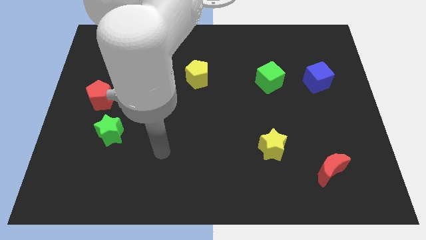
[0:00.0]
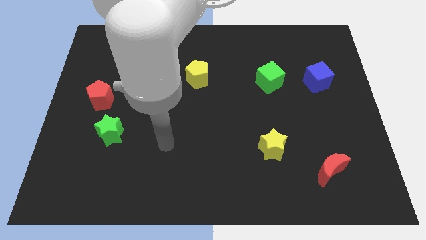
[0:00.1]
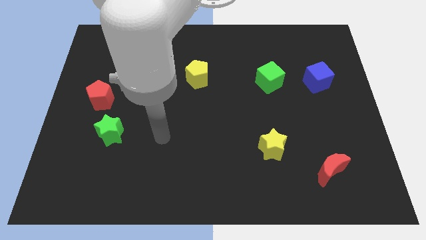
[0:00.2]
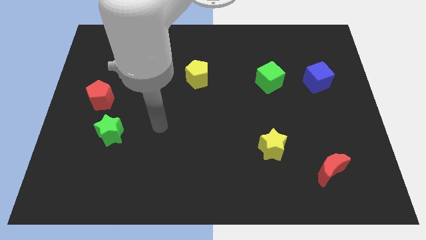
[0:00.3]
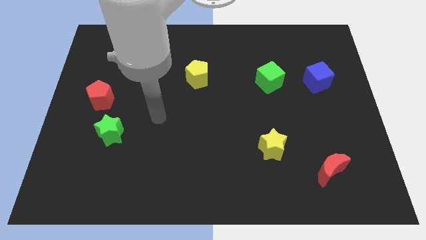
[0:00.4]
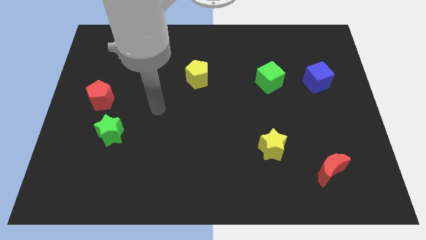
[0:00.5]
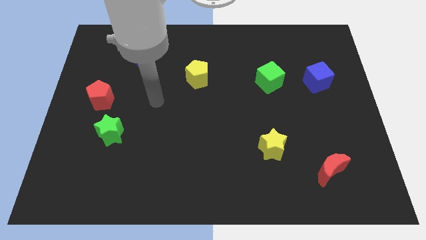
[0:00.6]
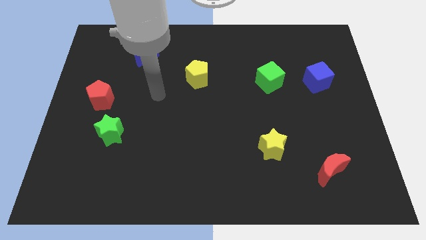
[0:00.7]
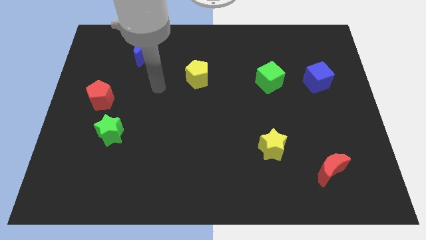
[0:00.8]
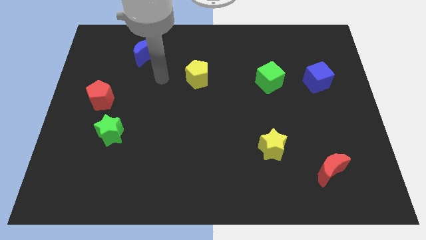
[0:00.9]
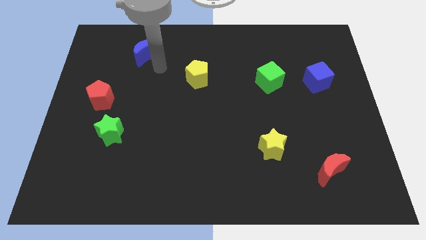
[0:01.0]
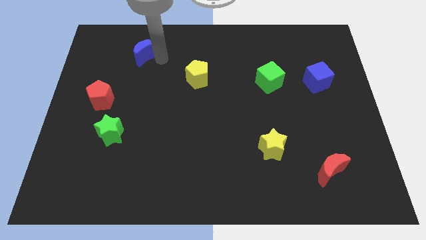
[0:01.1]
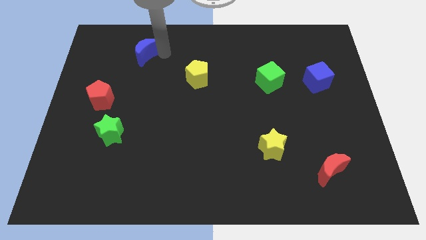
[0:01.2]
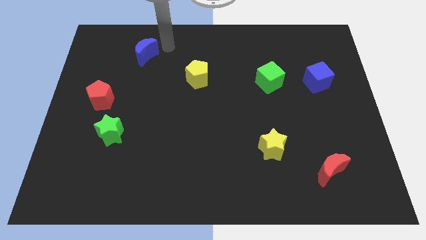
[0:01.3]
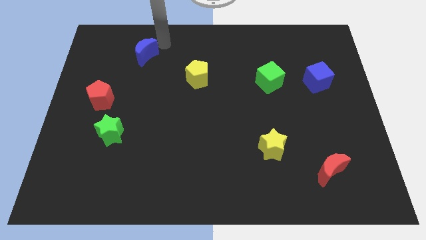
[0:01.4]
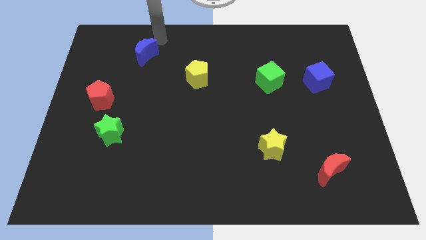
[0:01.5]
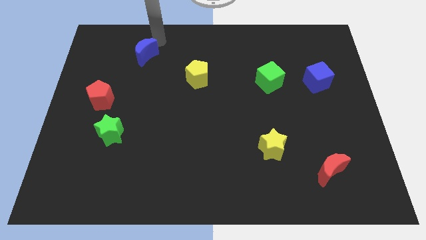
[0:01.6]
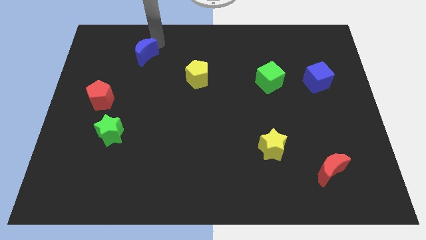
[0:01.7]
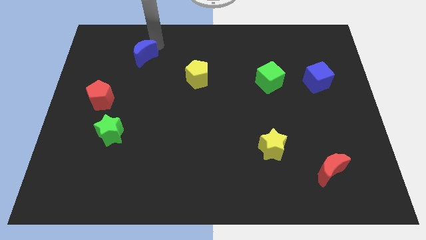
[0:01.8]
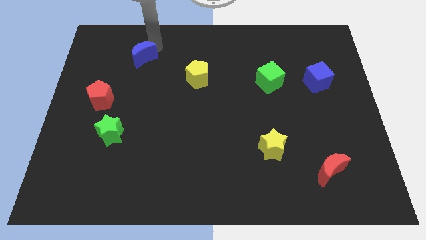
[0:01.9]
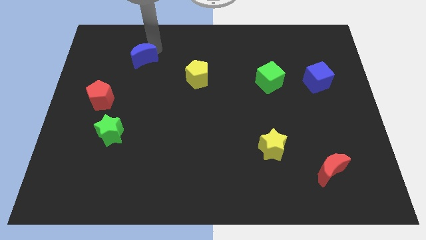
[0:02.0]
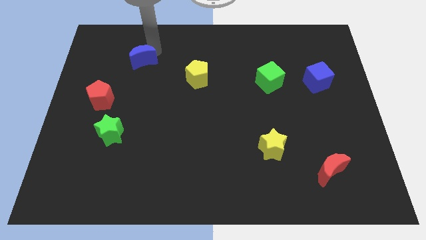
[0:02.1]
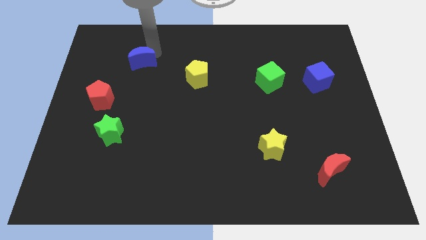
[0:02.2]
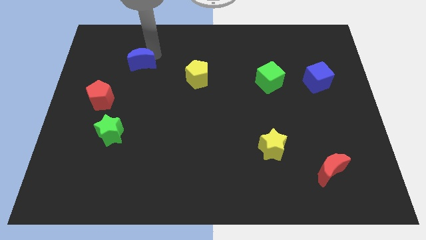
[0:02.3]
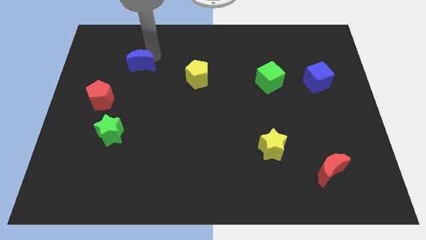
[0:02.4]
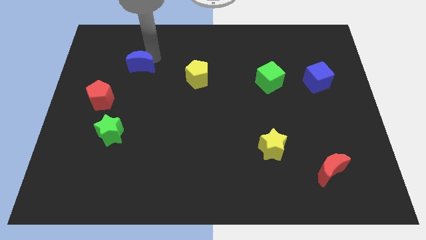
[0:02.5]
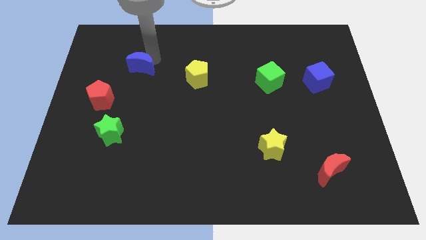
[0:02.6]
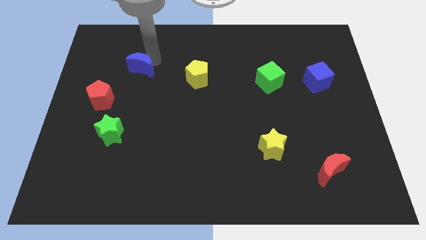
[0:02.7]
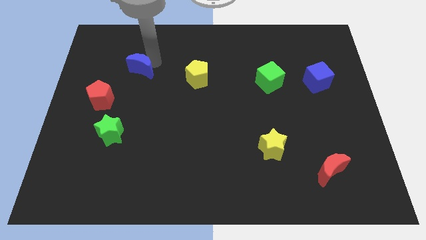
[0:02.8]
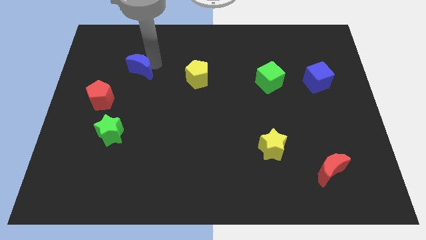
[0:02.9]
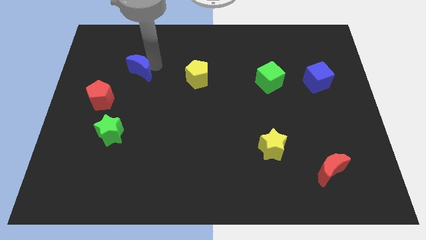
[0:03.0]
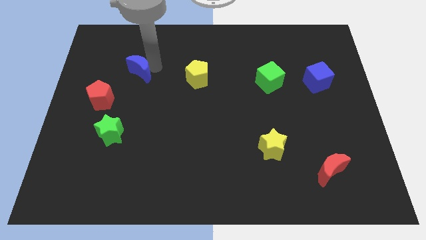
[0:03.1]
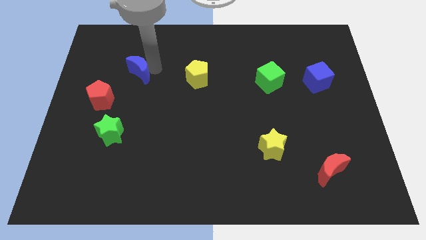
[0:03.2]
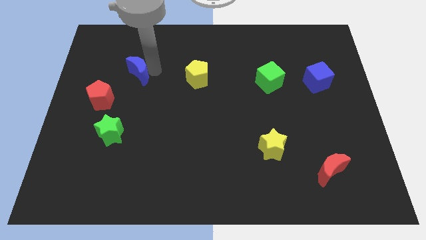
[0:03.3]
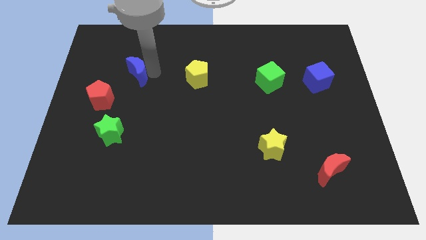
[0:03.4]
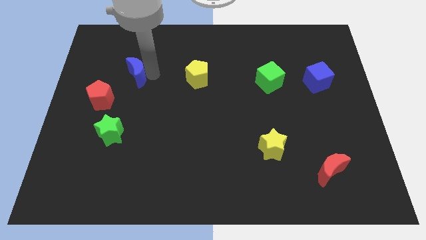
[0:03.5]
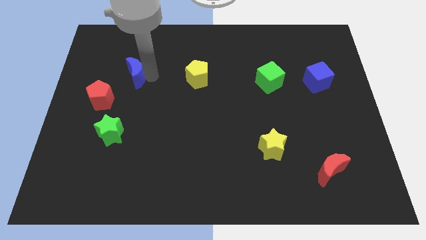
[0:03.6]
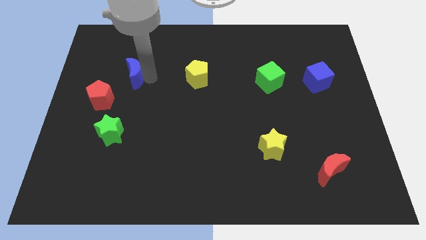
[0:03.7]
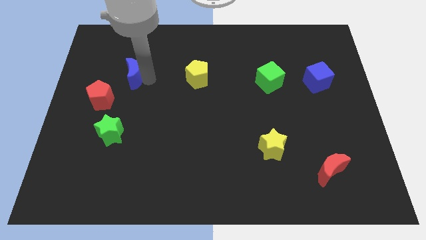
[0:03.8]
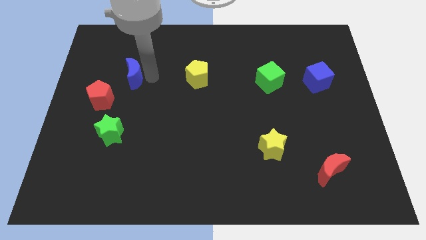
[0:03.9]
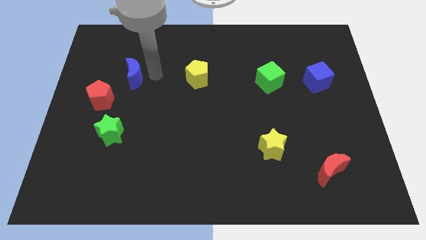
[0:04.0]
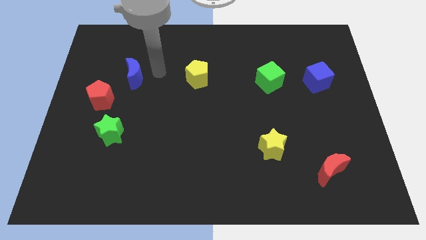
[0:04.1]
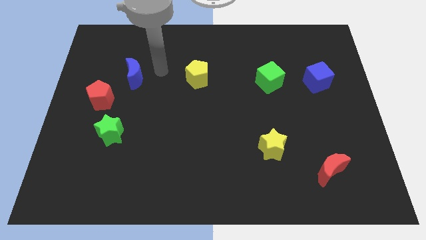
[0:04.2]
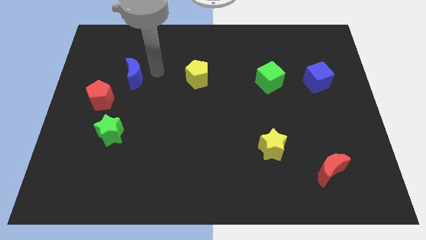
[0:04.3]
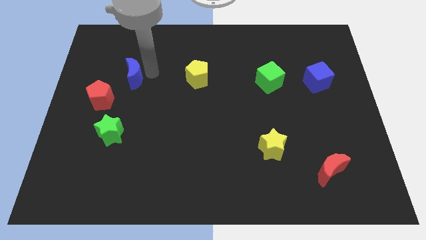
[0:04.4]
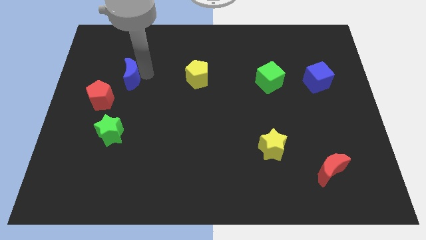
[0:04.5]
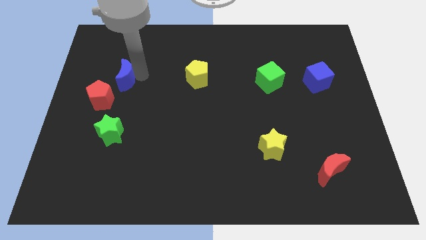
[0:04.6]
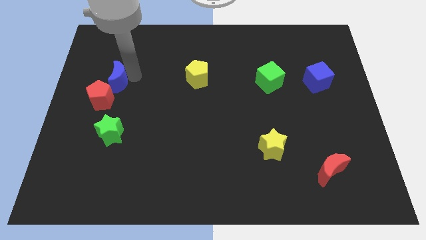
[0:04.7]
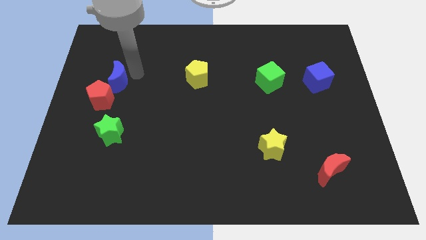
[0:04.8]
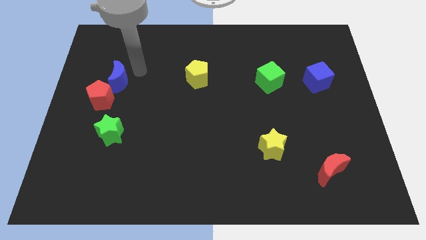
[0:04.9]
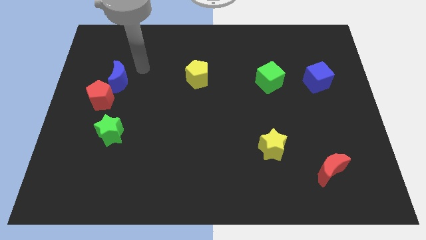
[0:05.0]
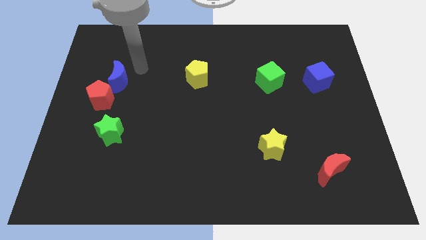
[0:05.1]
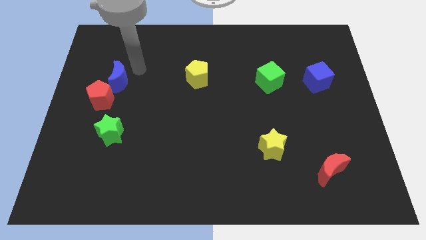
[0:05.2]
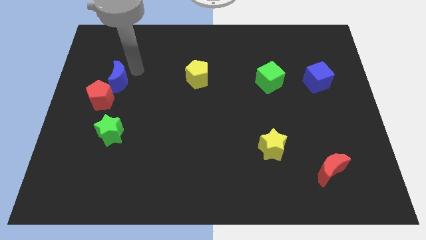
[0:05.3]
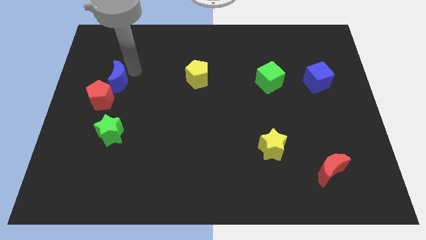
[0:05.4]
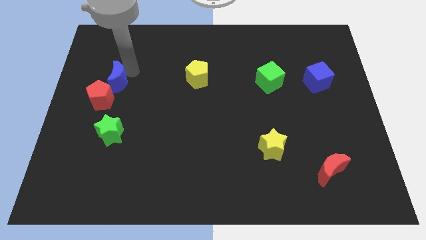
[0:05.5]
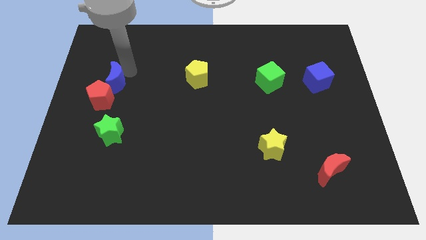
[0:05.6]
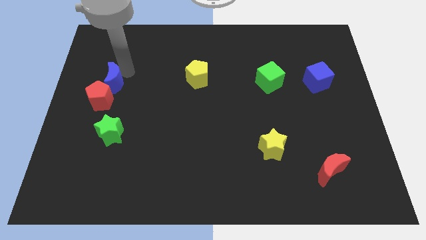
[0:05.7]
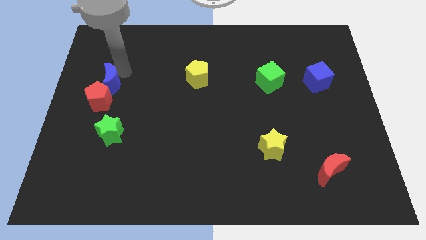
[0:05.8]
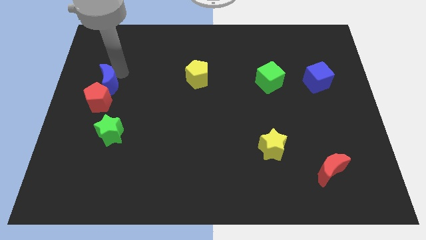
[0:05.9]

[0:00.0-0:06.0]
put the blue moon next to the red pentagon
